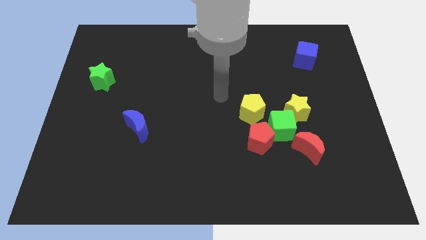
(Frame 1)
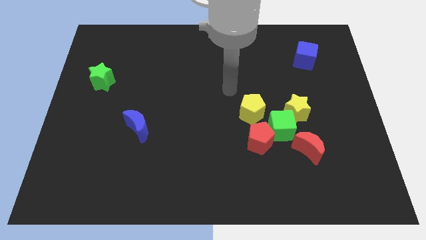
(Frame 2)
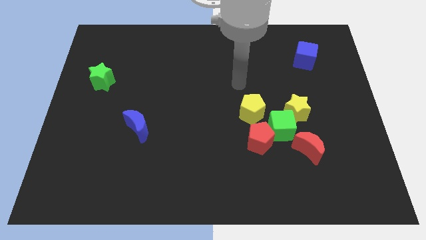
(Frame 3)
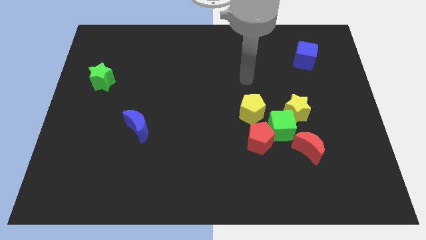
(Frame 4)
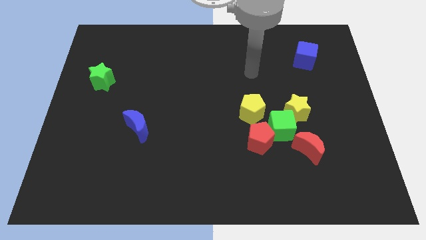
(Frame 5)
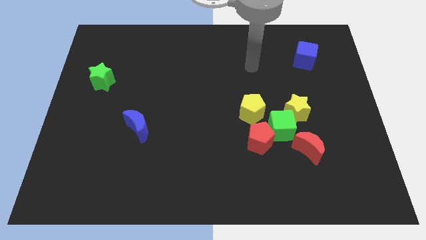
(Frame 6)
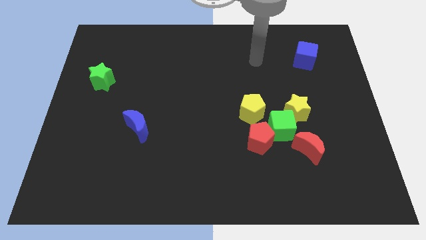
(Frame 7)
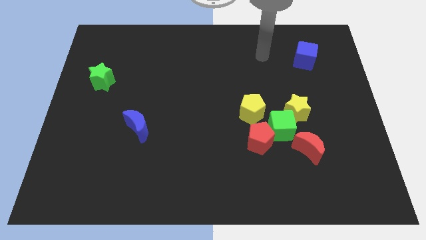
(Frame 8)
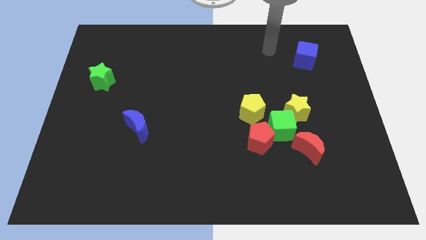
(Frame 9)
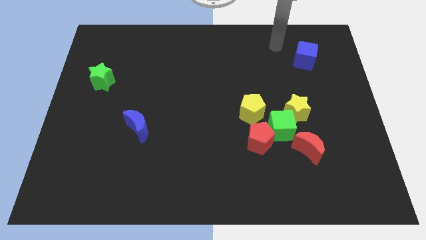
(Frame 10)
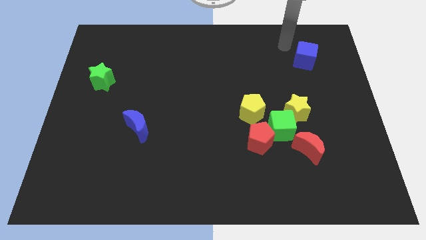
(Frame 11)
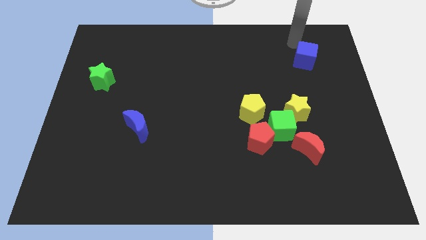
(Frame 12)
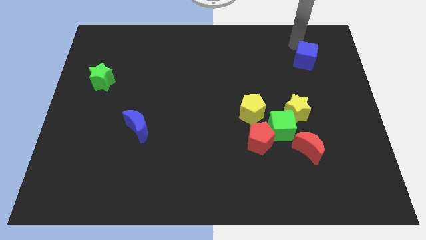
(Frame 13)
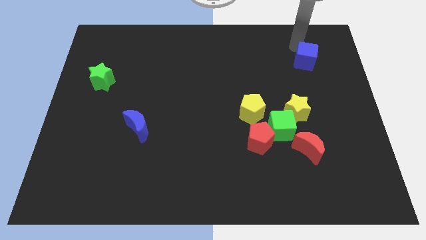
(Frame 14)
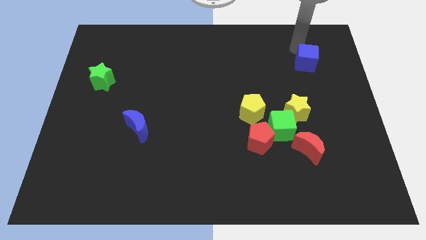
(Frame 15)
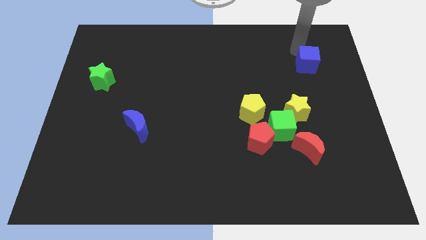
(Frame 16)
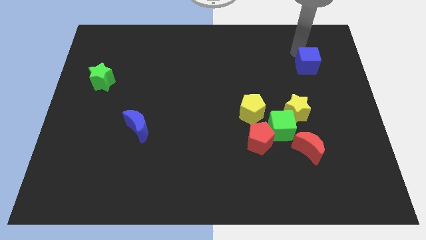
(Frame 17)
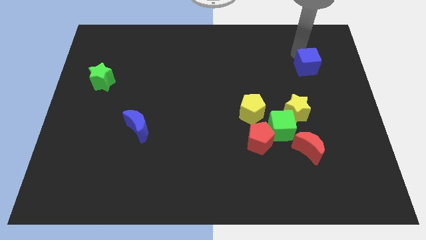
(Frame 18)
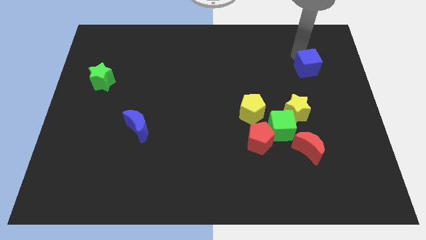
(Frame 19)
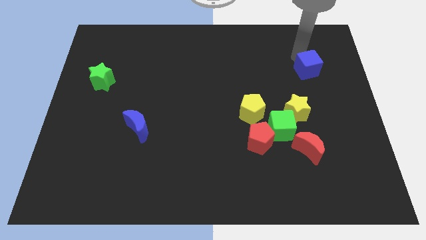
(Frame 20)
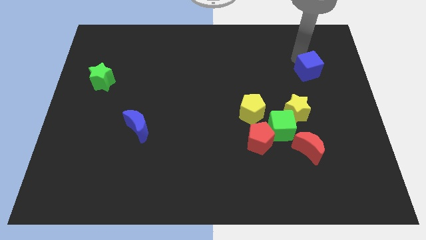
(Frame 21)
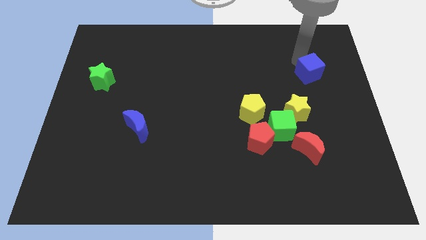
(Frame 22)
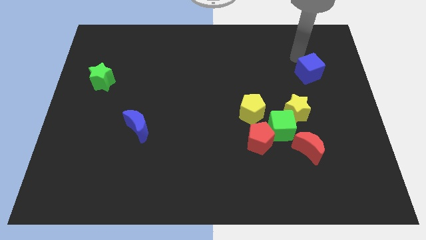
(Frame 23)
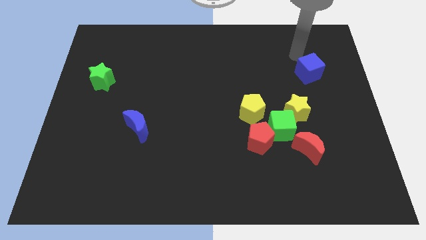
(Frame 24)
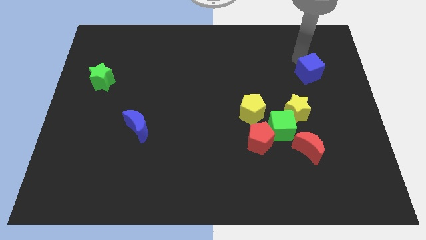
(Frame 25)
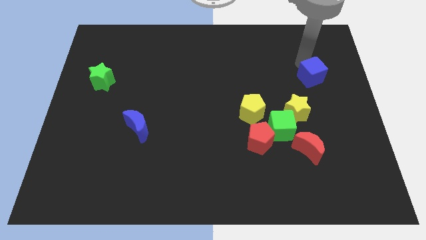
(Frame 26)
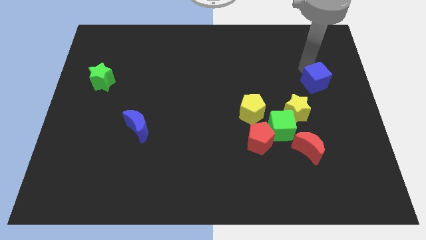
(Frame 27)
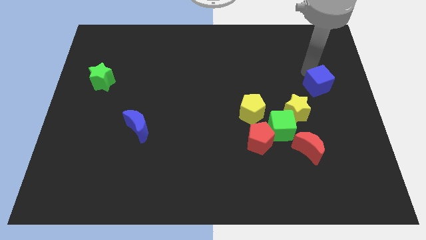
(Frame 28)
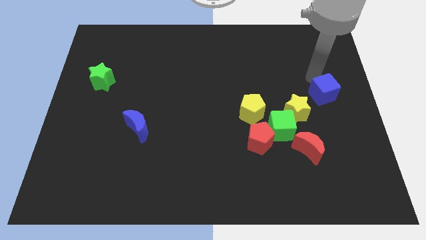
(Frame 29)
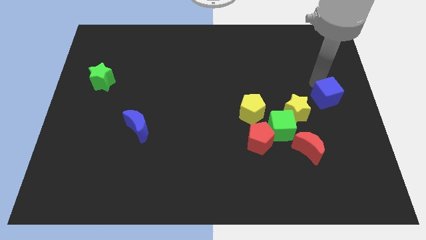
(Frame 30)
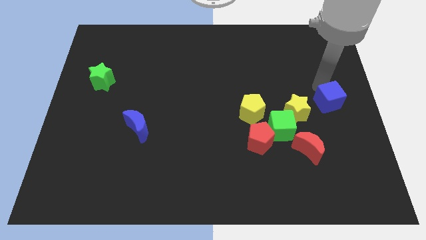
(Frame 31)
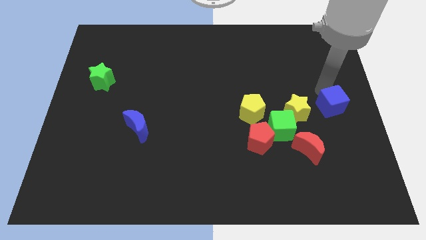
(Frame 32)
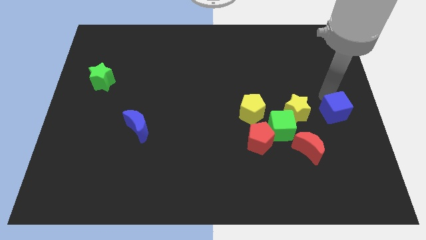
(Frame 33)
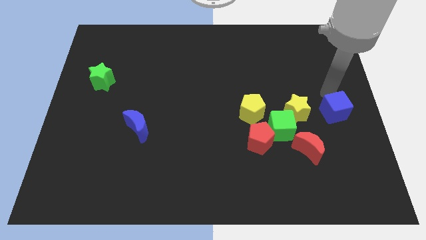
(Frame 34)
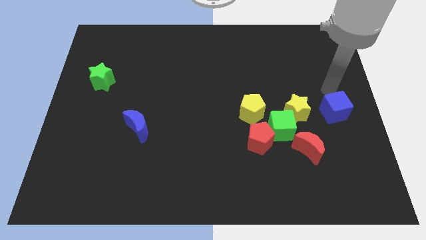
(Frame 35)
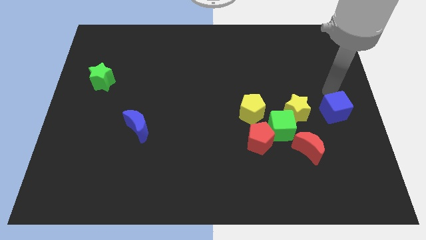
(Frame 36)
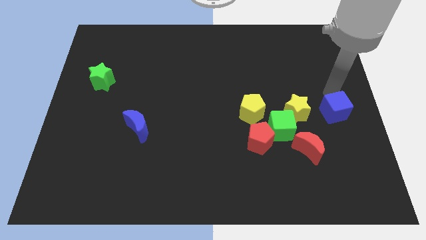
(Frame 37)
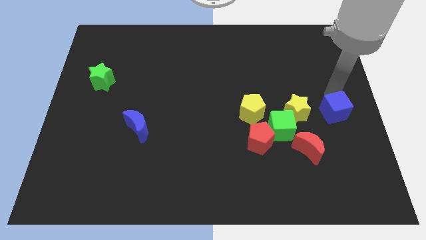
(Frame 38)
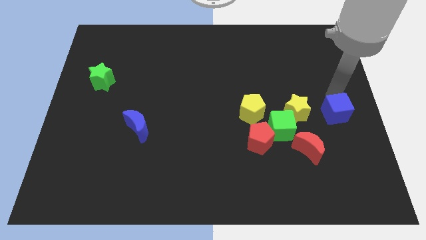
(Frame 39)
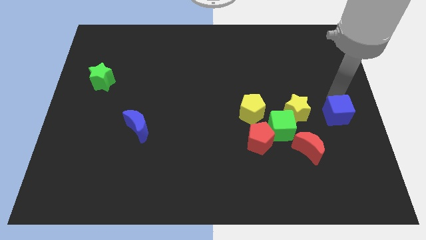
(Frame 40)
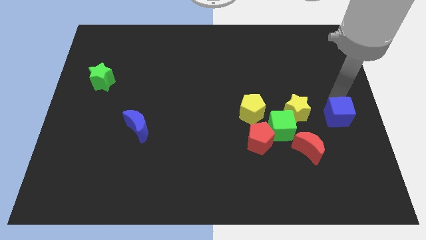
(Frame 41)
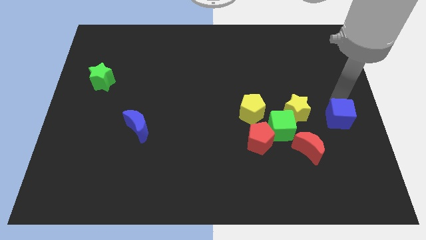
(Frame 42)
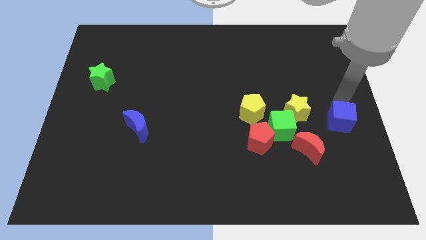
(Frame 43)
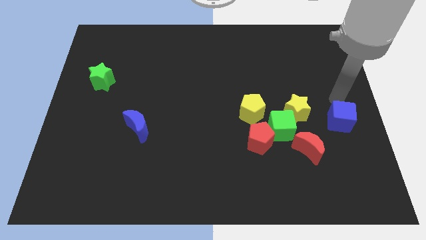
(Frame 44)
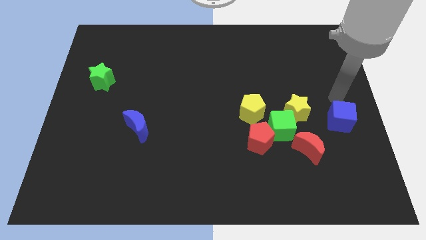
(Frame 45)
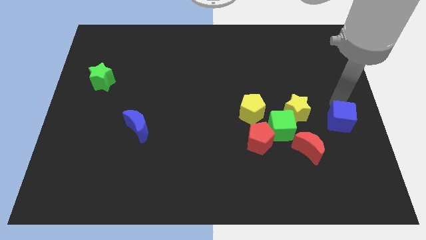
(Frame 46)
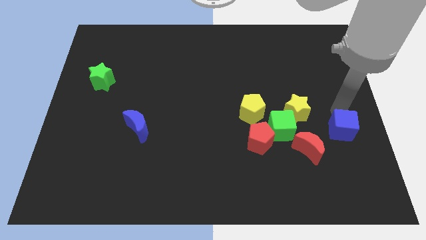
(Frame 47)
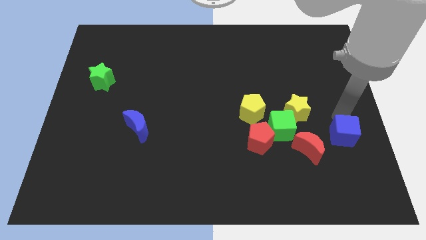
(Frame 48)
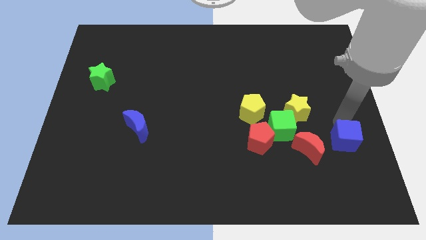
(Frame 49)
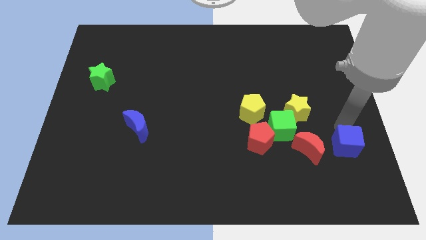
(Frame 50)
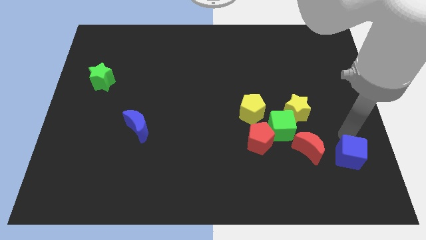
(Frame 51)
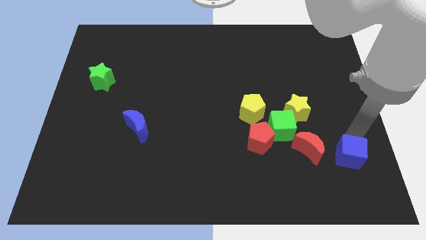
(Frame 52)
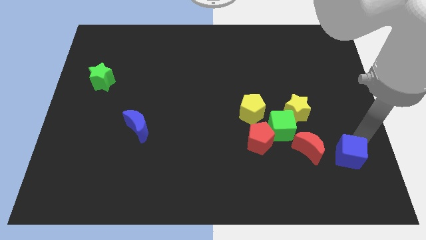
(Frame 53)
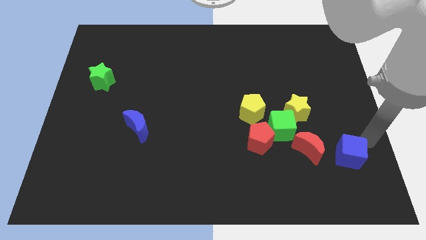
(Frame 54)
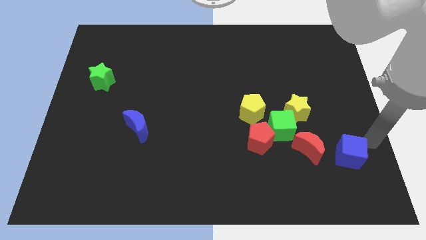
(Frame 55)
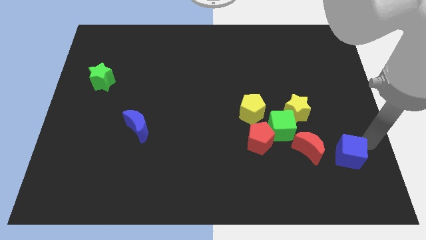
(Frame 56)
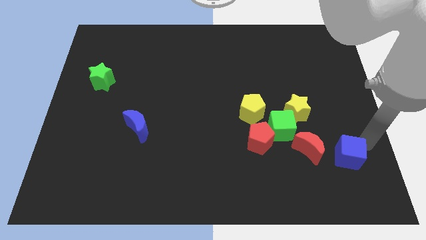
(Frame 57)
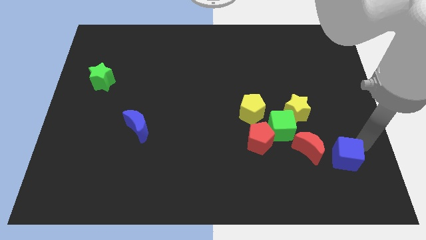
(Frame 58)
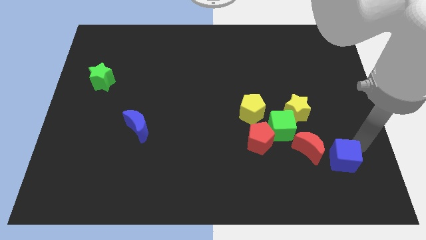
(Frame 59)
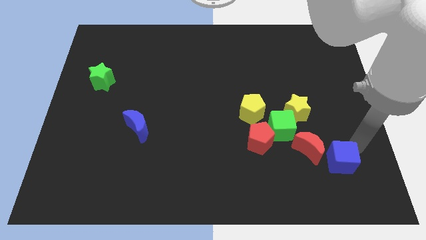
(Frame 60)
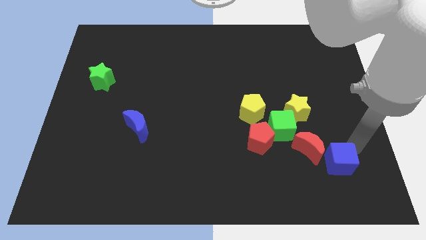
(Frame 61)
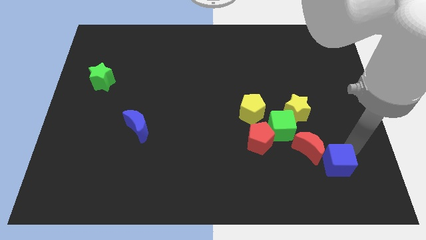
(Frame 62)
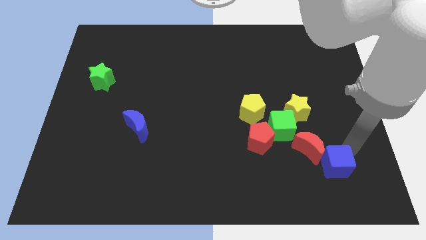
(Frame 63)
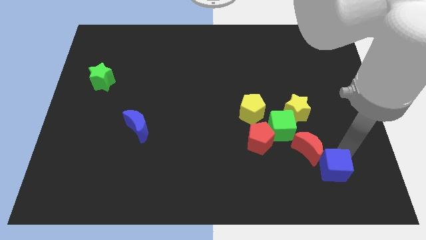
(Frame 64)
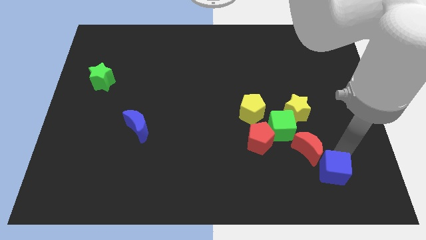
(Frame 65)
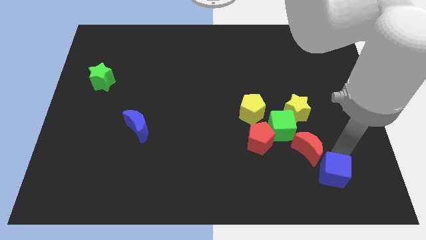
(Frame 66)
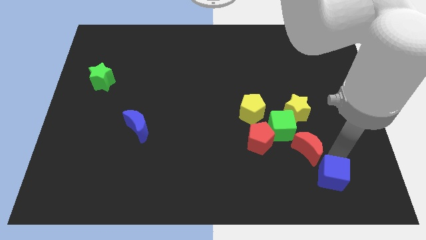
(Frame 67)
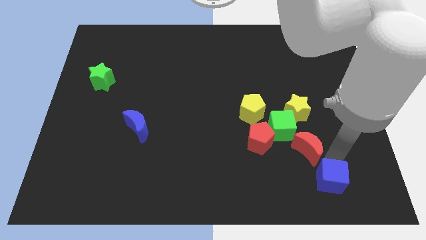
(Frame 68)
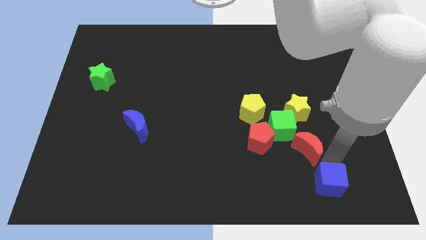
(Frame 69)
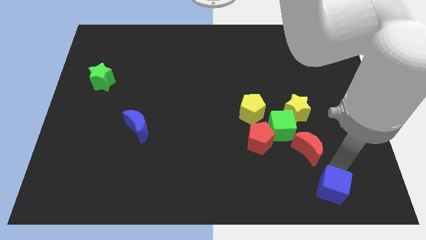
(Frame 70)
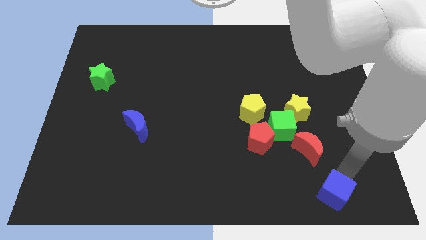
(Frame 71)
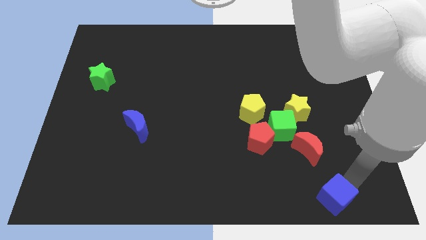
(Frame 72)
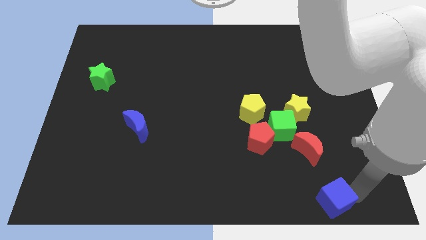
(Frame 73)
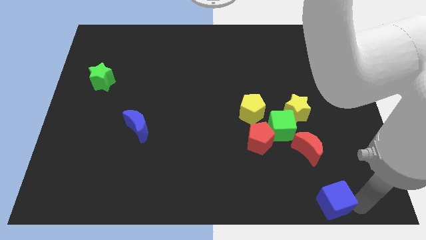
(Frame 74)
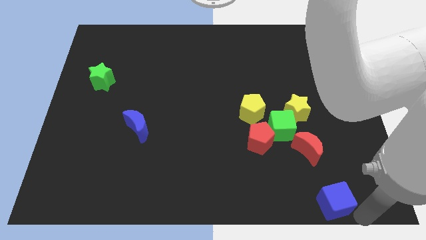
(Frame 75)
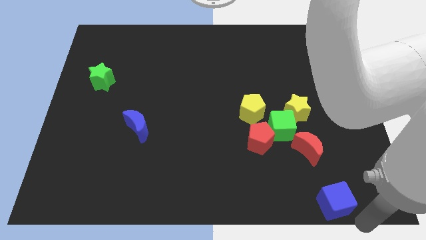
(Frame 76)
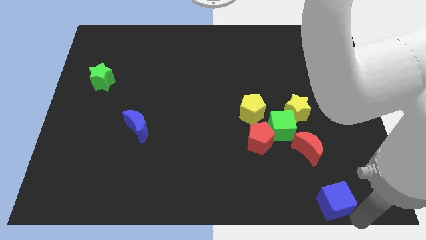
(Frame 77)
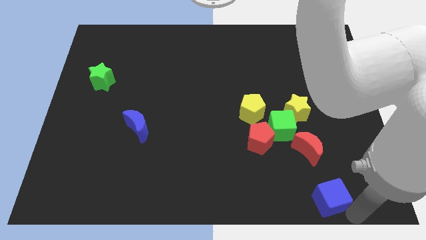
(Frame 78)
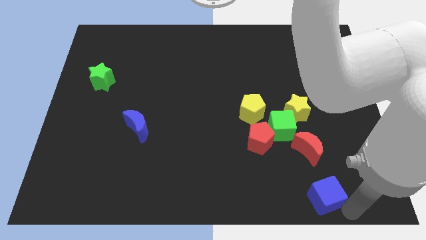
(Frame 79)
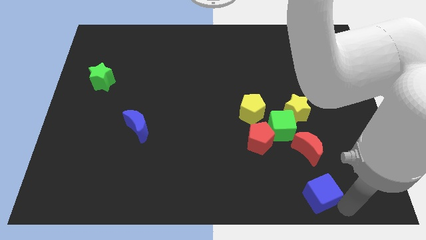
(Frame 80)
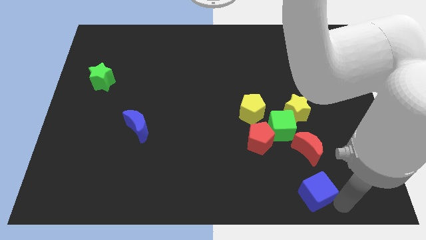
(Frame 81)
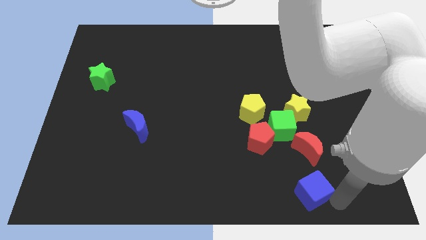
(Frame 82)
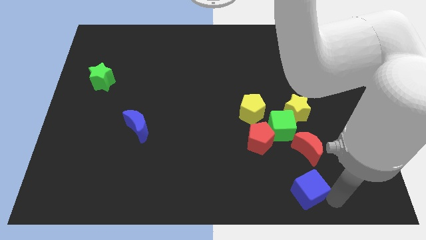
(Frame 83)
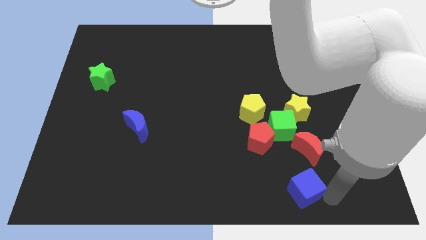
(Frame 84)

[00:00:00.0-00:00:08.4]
put the blue cube to the bottom side of the green cube
